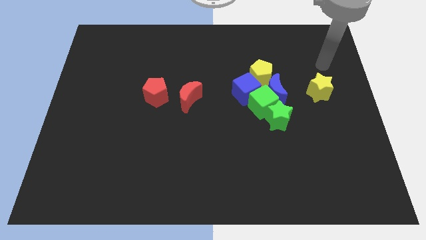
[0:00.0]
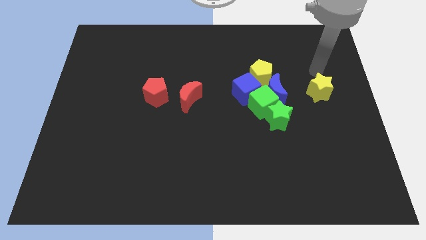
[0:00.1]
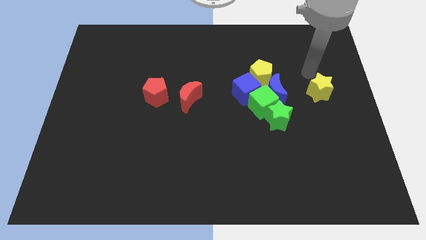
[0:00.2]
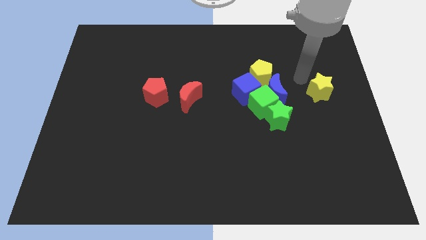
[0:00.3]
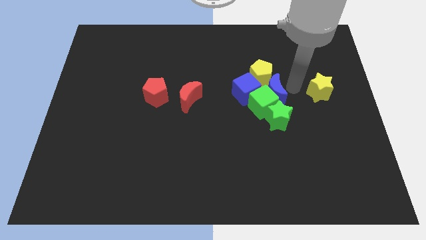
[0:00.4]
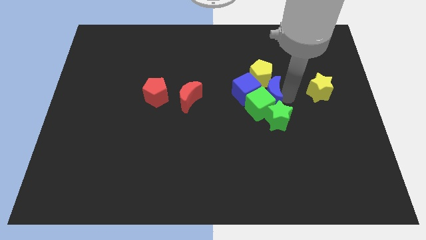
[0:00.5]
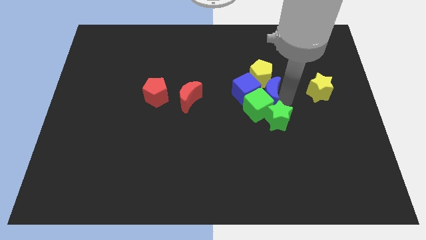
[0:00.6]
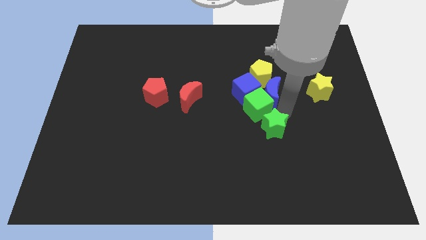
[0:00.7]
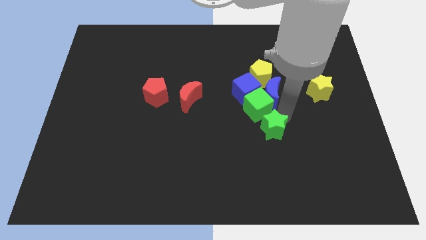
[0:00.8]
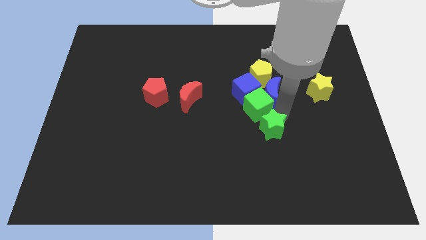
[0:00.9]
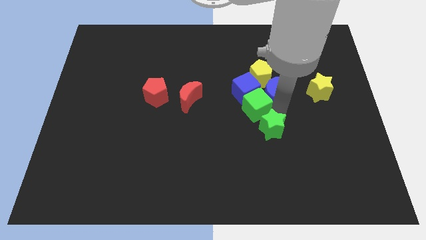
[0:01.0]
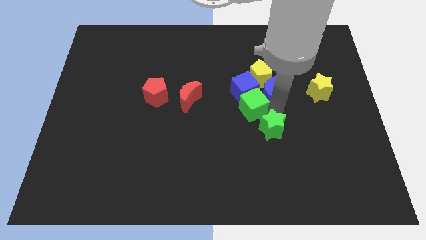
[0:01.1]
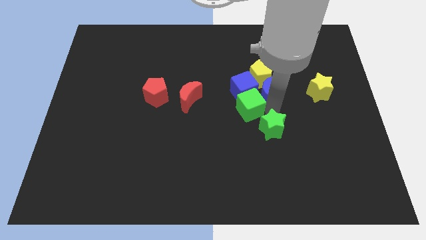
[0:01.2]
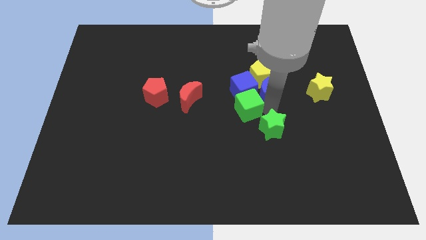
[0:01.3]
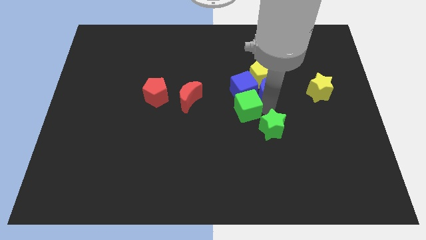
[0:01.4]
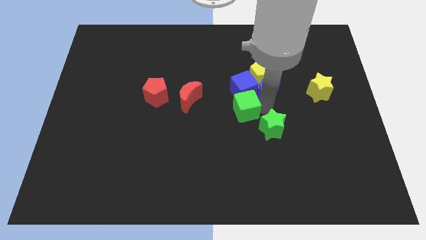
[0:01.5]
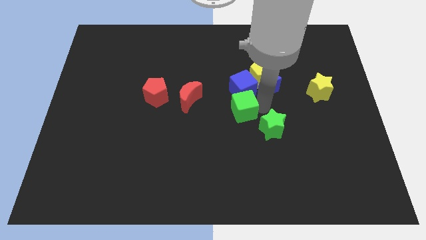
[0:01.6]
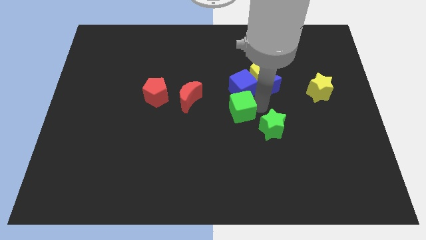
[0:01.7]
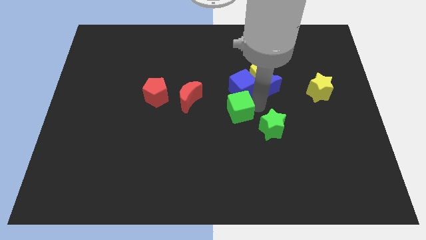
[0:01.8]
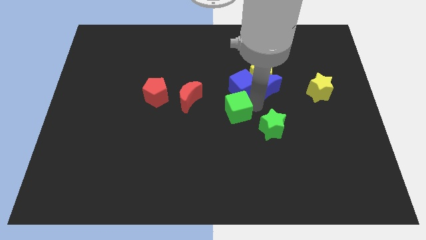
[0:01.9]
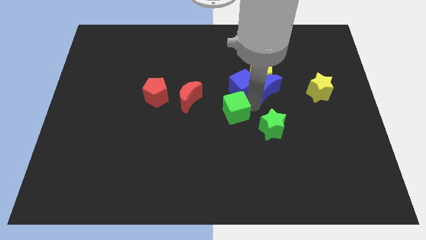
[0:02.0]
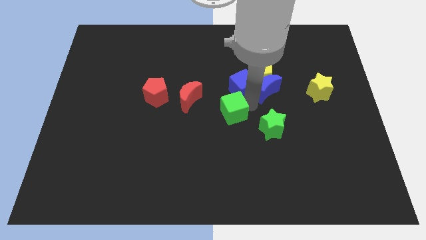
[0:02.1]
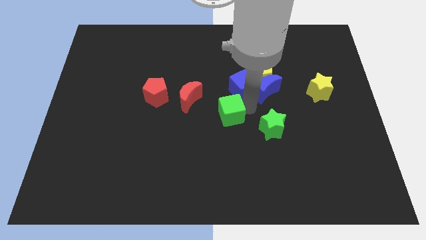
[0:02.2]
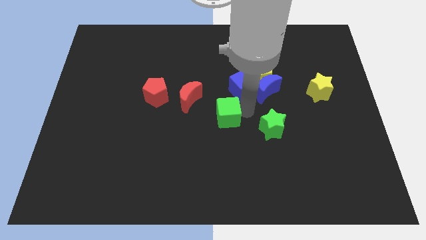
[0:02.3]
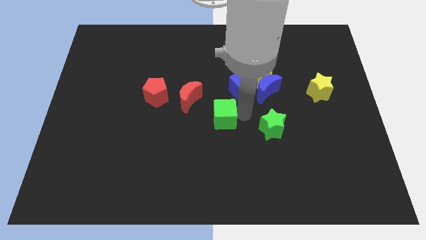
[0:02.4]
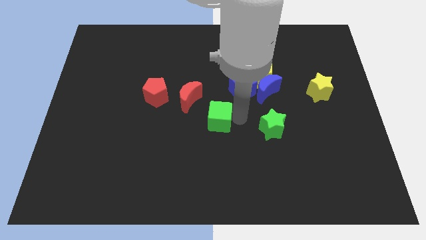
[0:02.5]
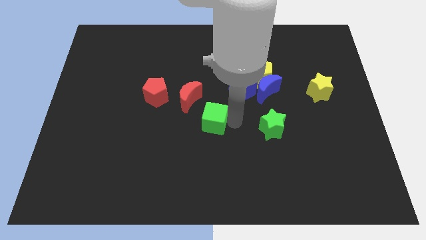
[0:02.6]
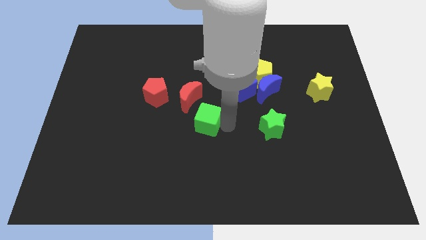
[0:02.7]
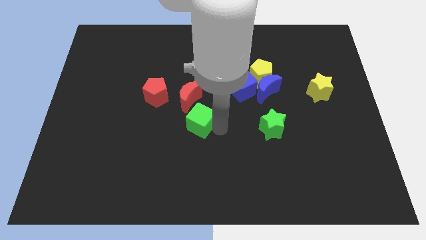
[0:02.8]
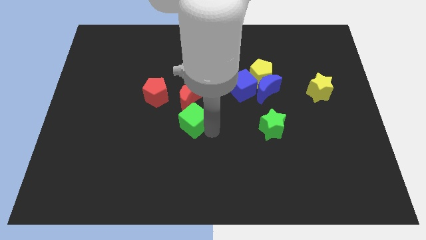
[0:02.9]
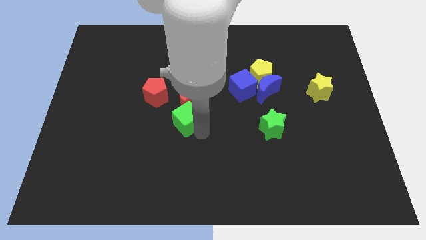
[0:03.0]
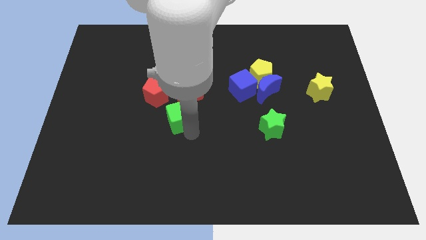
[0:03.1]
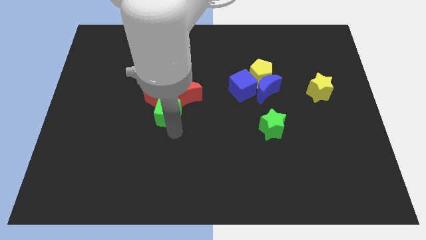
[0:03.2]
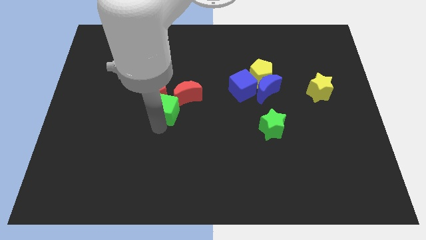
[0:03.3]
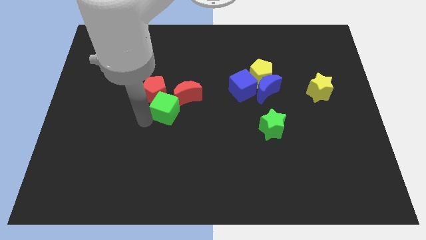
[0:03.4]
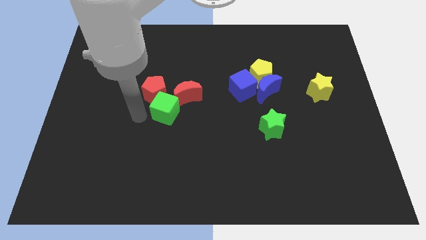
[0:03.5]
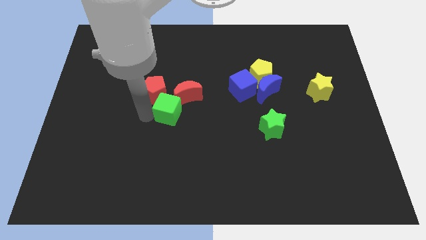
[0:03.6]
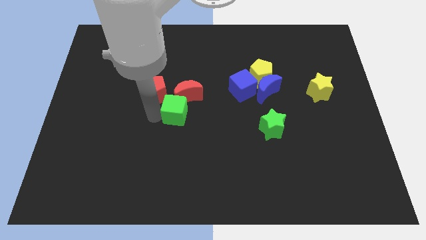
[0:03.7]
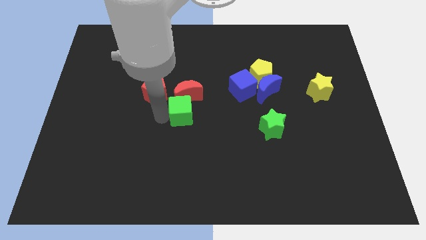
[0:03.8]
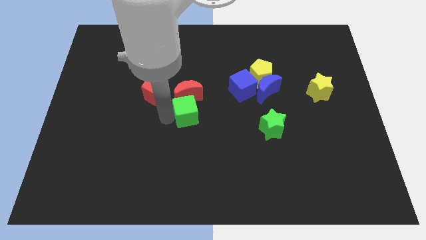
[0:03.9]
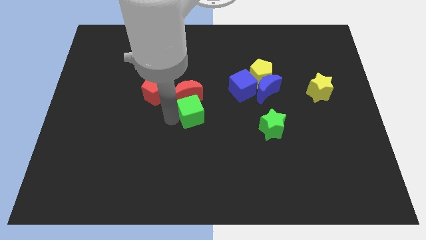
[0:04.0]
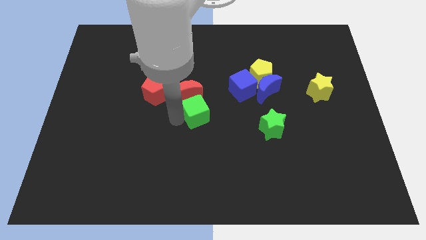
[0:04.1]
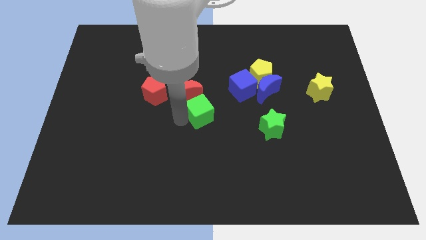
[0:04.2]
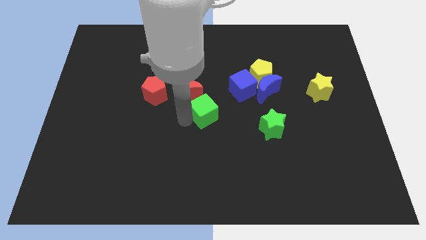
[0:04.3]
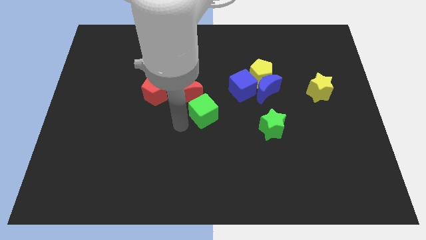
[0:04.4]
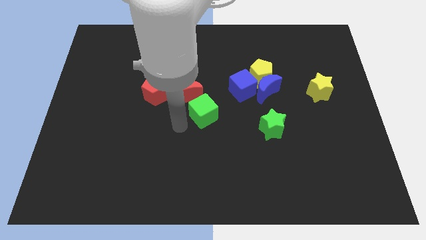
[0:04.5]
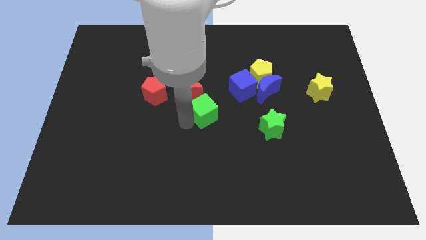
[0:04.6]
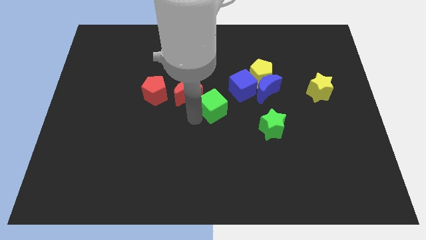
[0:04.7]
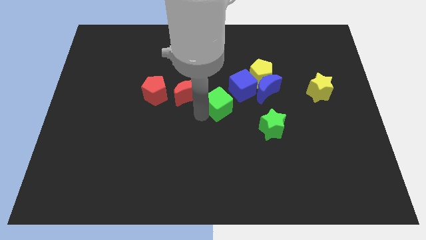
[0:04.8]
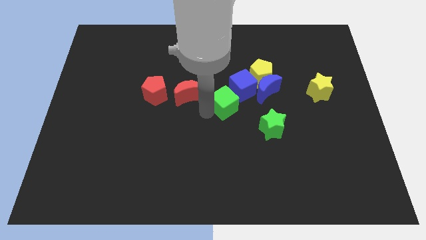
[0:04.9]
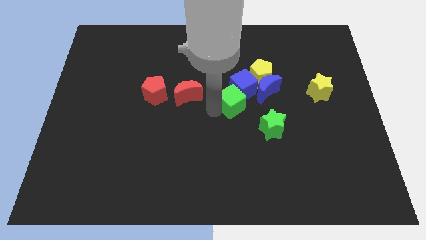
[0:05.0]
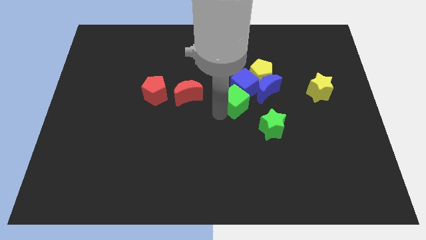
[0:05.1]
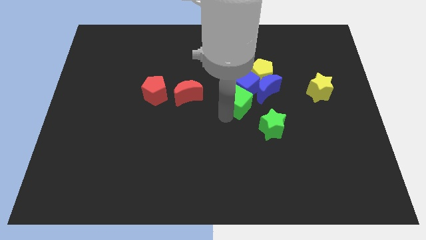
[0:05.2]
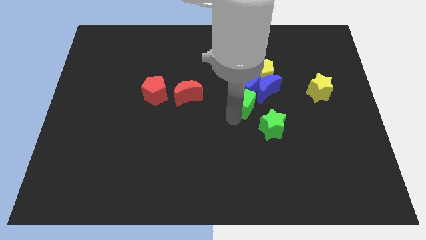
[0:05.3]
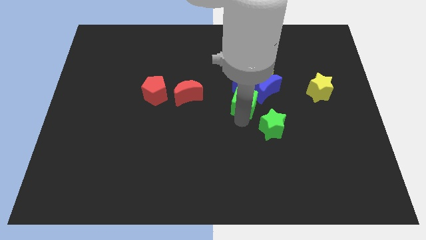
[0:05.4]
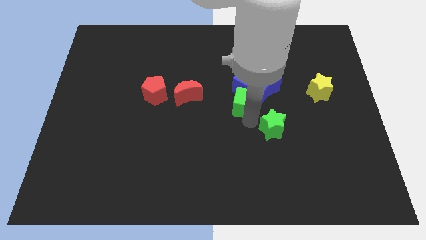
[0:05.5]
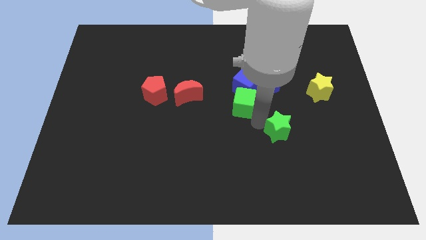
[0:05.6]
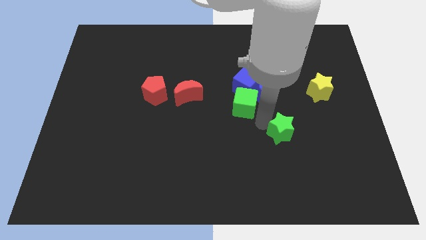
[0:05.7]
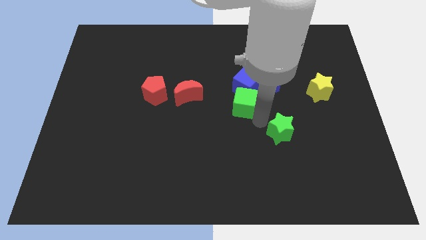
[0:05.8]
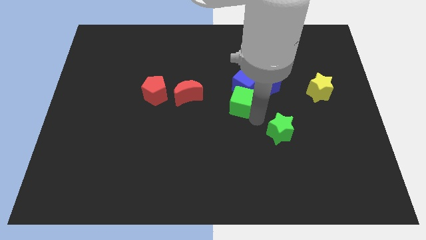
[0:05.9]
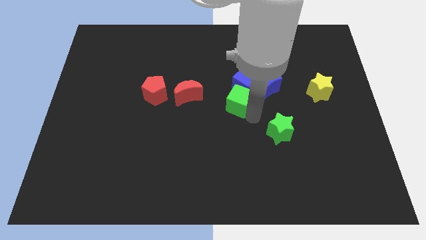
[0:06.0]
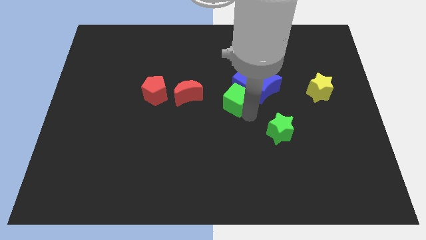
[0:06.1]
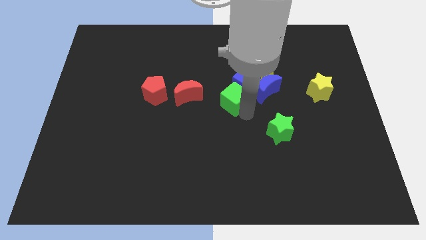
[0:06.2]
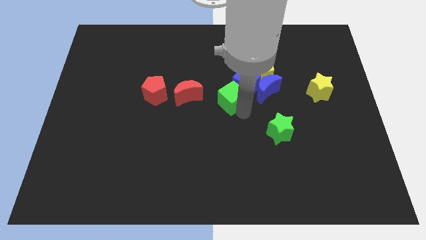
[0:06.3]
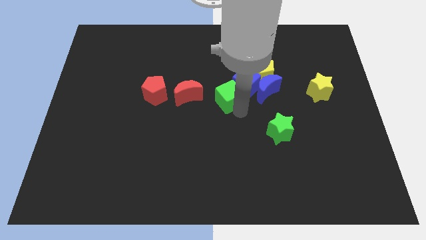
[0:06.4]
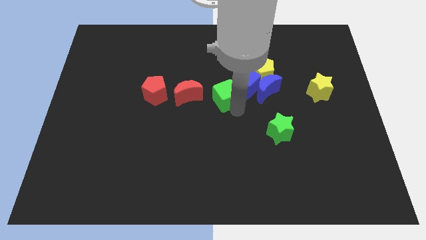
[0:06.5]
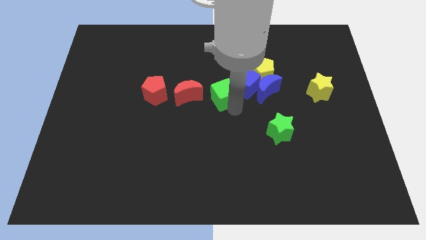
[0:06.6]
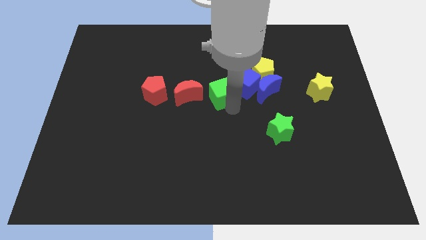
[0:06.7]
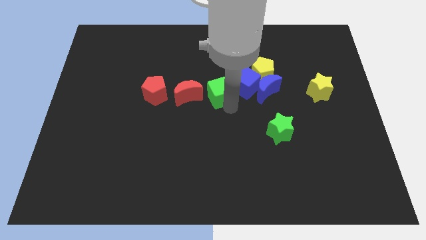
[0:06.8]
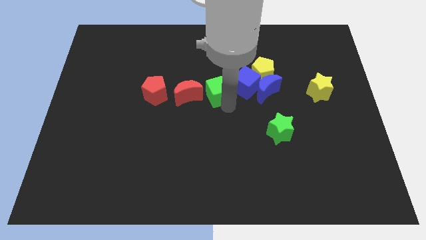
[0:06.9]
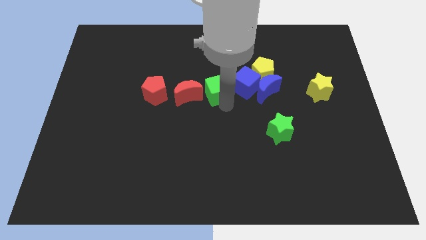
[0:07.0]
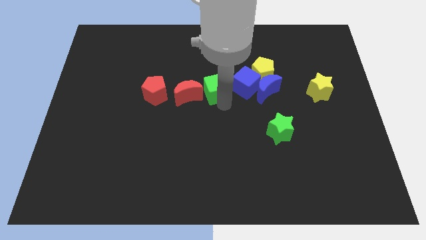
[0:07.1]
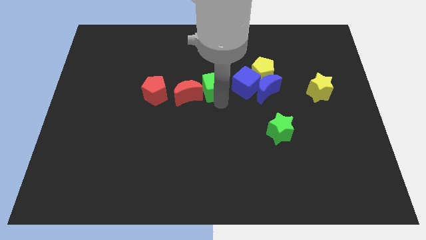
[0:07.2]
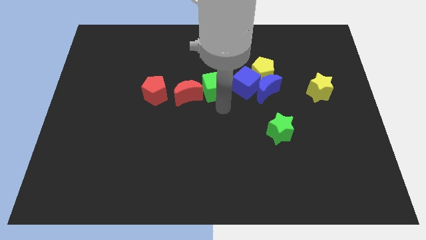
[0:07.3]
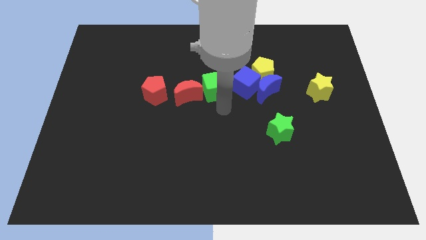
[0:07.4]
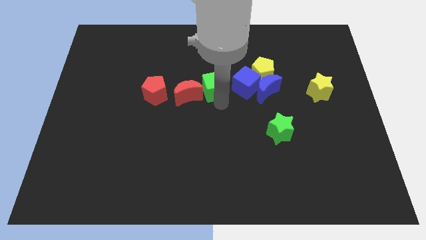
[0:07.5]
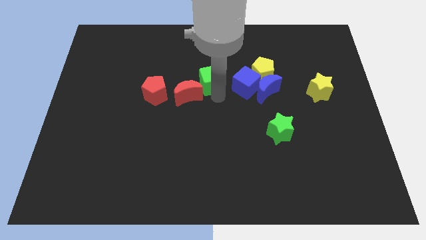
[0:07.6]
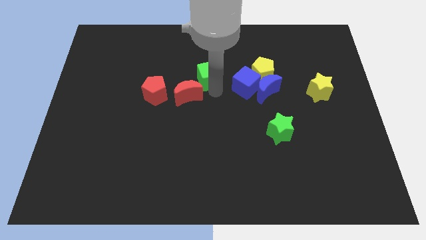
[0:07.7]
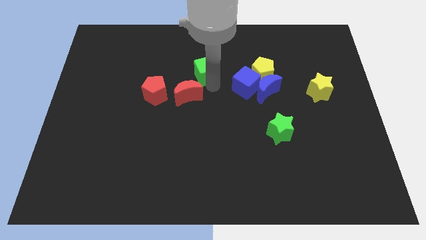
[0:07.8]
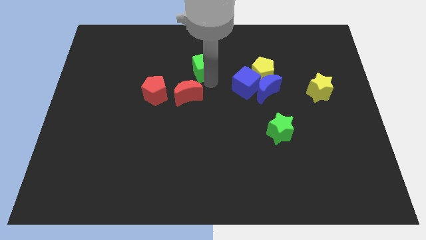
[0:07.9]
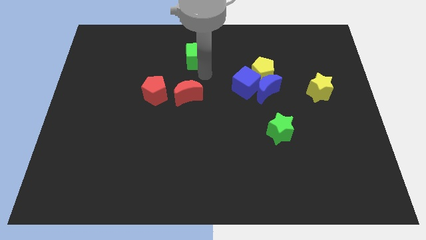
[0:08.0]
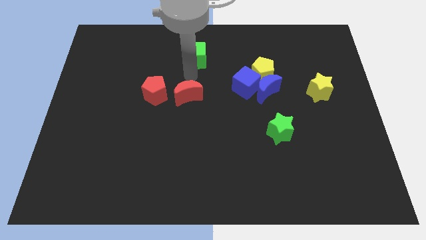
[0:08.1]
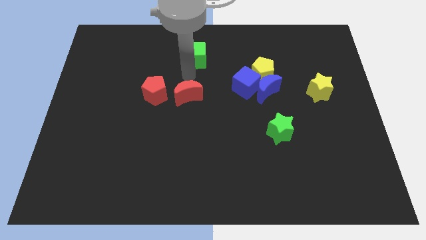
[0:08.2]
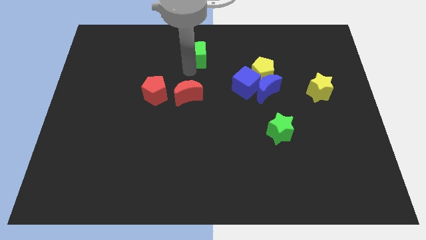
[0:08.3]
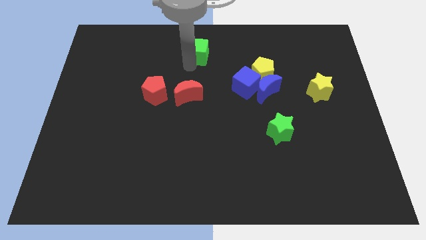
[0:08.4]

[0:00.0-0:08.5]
push the green cube to the top
